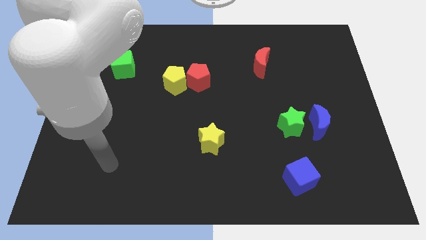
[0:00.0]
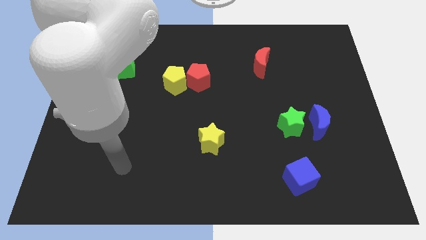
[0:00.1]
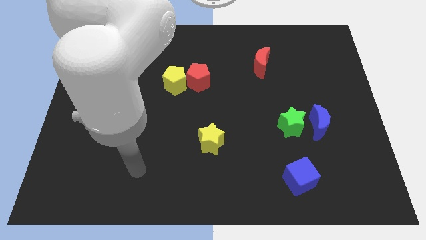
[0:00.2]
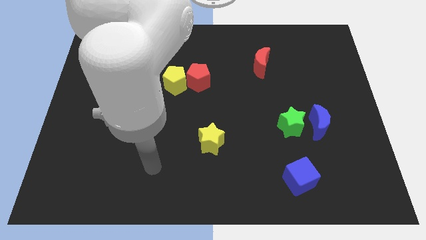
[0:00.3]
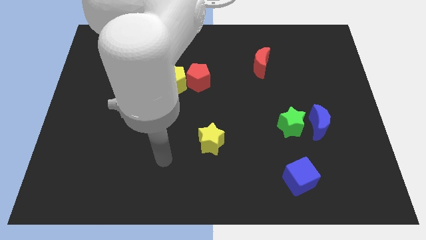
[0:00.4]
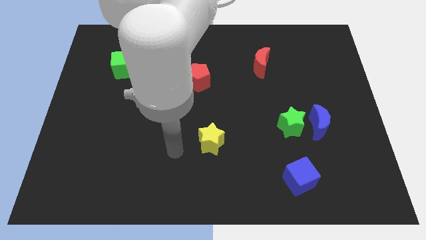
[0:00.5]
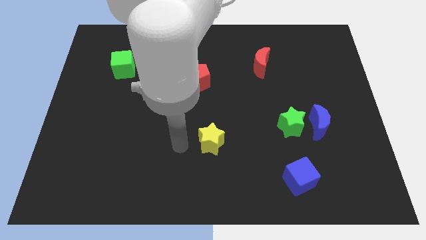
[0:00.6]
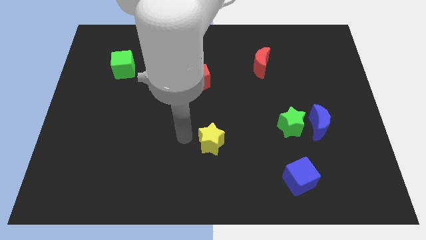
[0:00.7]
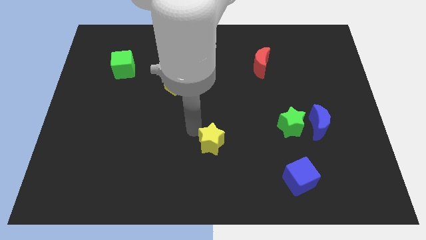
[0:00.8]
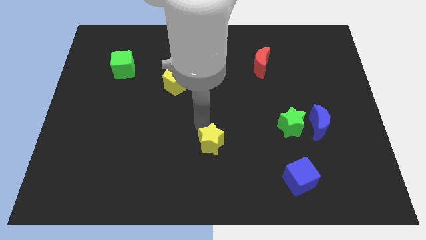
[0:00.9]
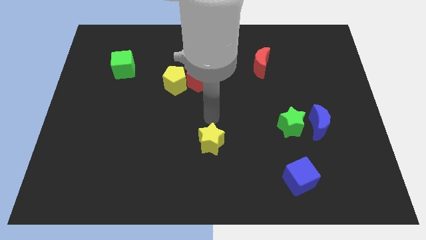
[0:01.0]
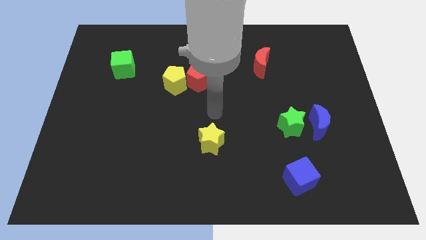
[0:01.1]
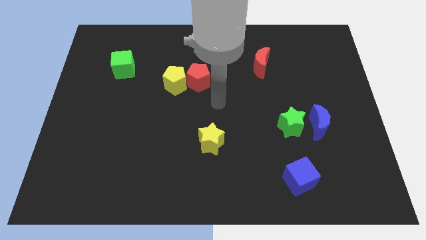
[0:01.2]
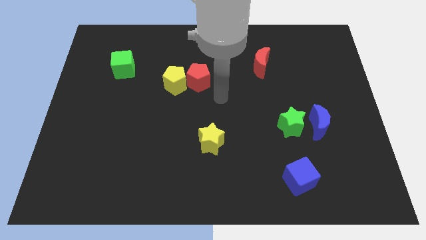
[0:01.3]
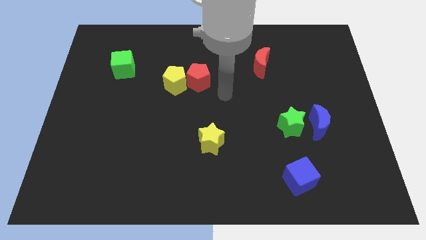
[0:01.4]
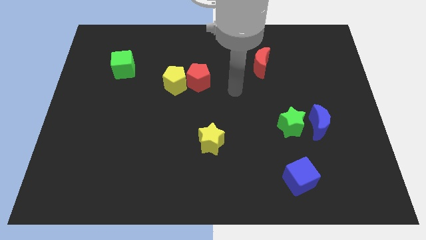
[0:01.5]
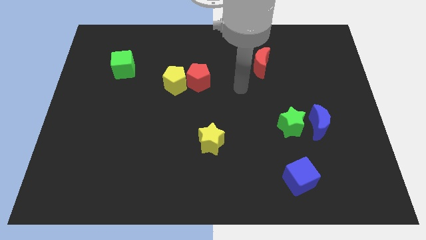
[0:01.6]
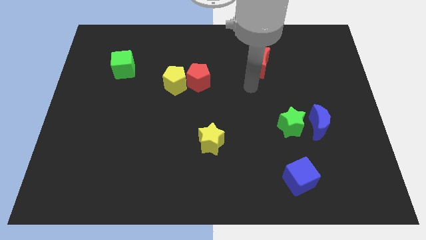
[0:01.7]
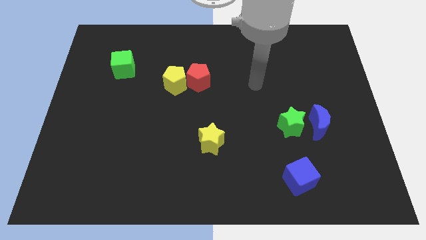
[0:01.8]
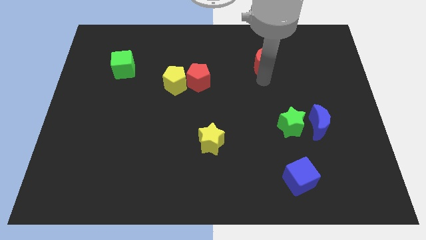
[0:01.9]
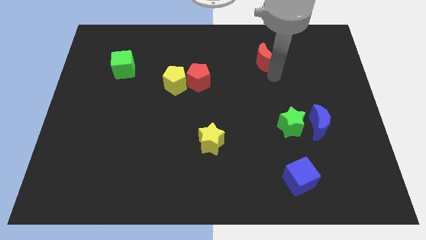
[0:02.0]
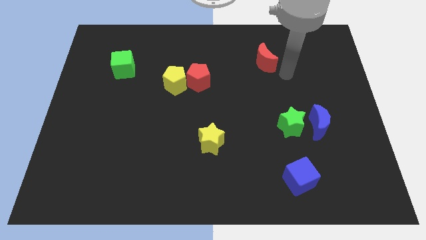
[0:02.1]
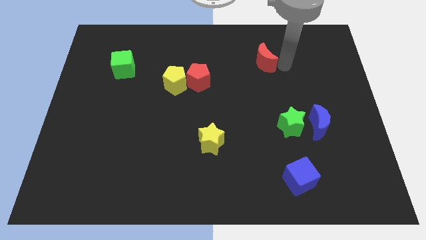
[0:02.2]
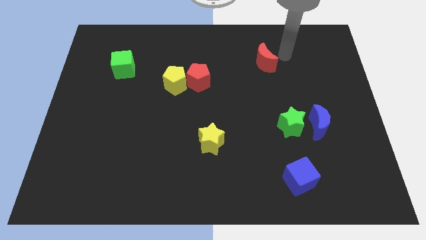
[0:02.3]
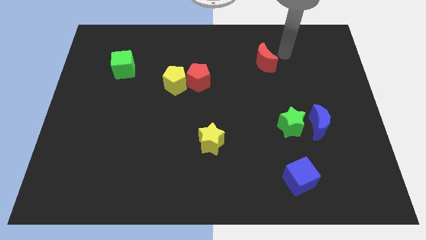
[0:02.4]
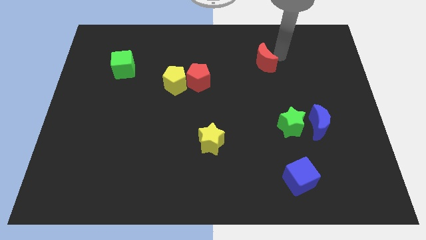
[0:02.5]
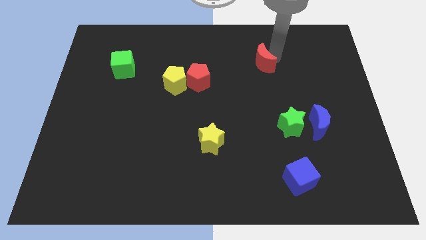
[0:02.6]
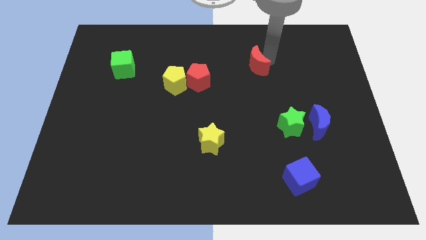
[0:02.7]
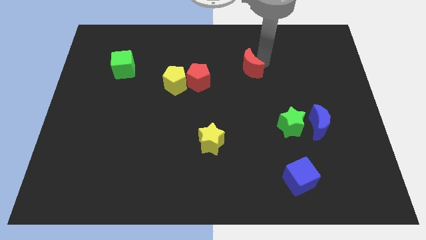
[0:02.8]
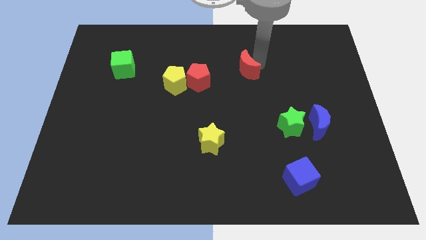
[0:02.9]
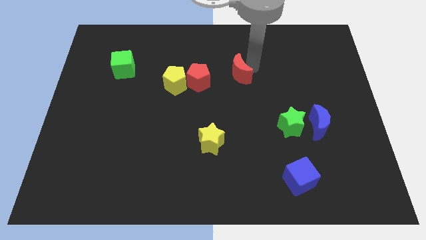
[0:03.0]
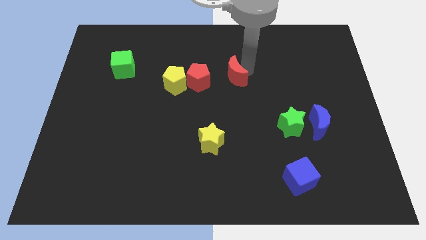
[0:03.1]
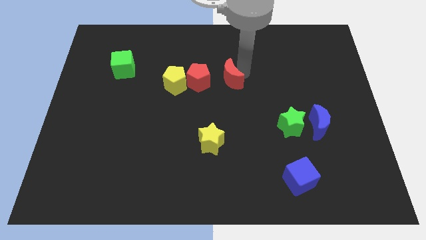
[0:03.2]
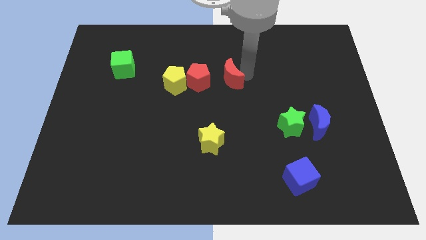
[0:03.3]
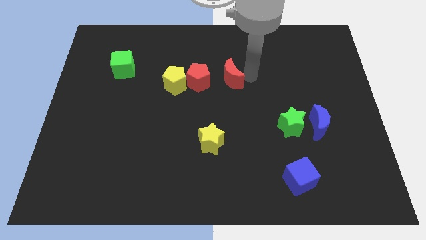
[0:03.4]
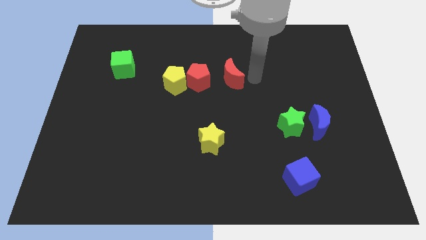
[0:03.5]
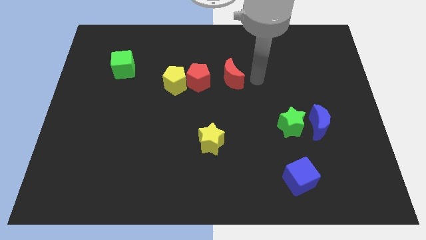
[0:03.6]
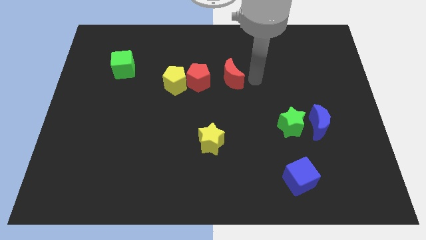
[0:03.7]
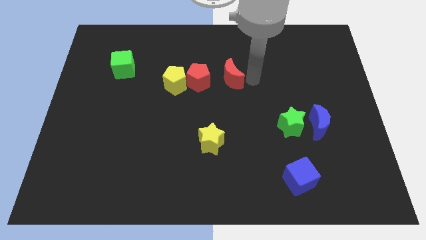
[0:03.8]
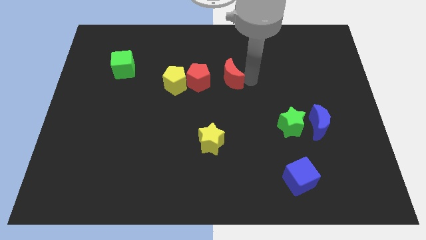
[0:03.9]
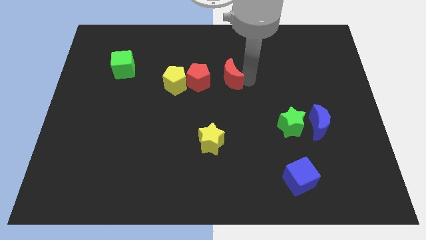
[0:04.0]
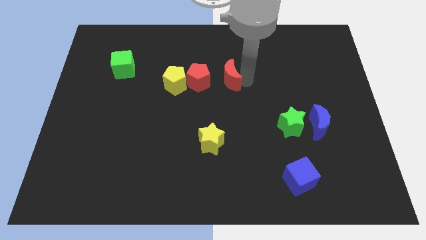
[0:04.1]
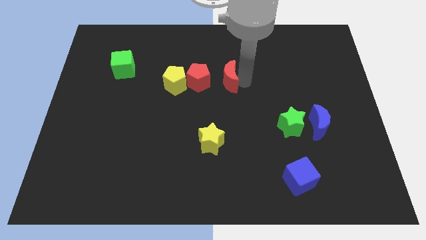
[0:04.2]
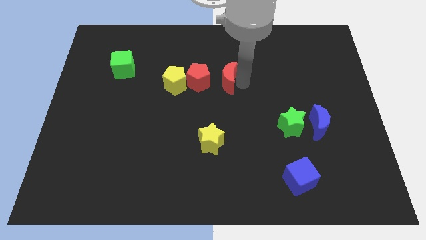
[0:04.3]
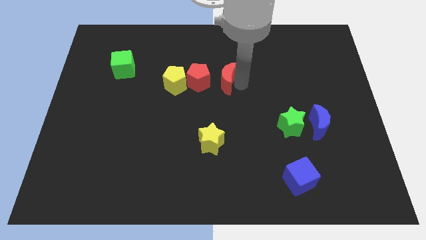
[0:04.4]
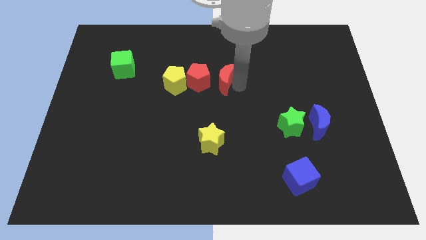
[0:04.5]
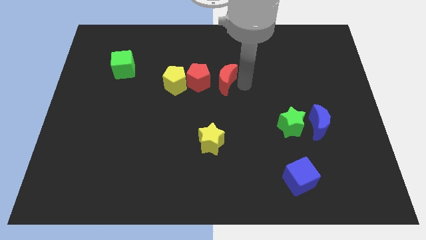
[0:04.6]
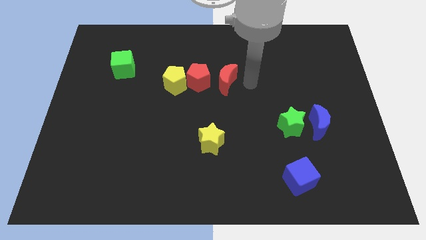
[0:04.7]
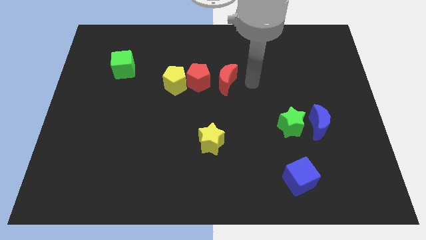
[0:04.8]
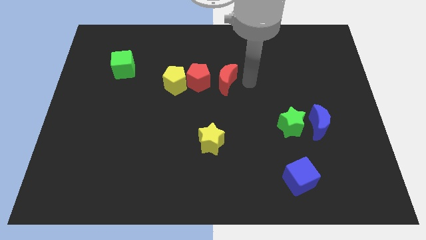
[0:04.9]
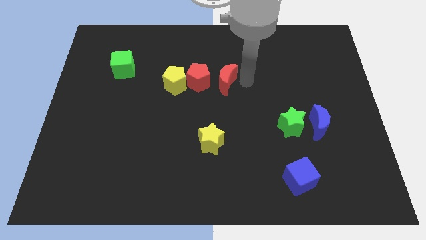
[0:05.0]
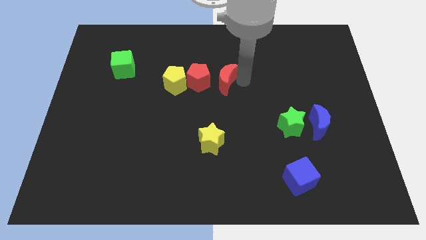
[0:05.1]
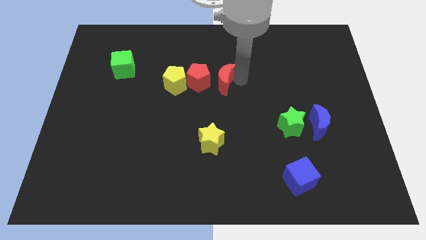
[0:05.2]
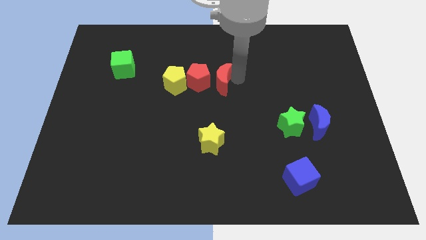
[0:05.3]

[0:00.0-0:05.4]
put the red moon towards the red pentagon

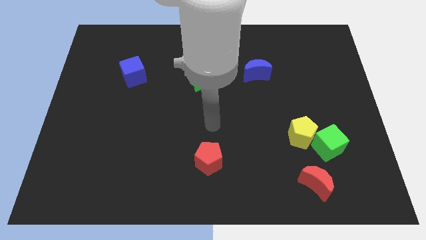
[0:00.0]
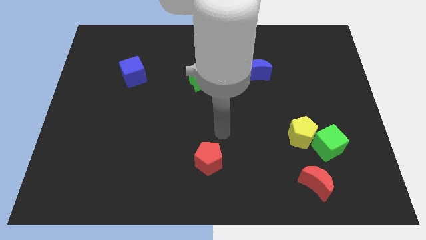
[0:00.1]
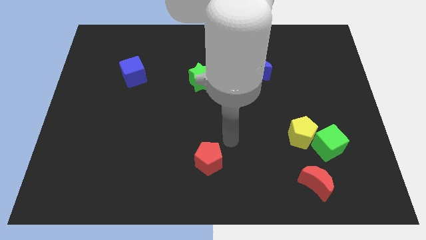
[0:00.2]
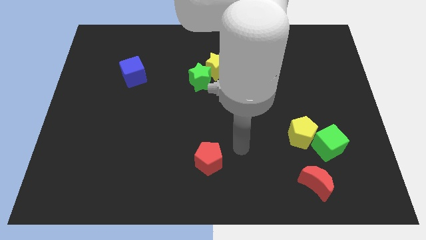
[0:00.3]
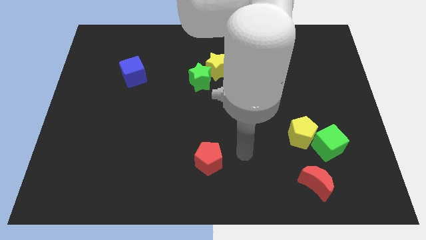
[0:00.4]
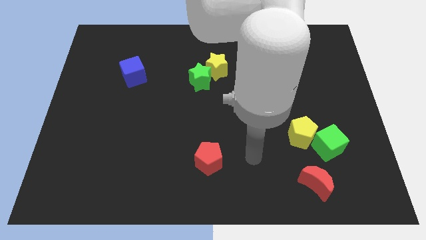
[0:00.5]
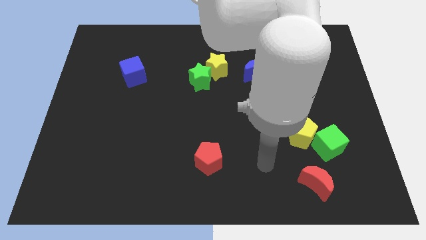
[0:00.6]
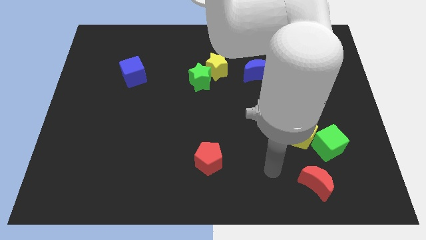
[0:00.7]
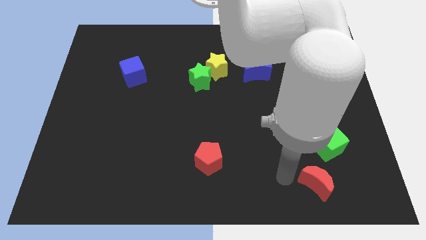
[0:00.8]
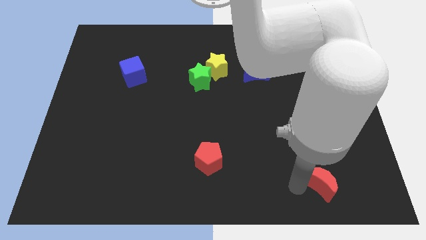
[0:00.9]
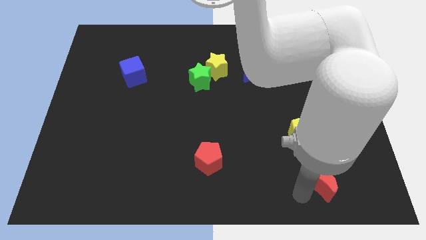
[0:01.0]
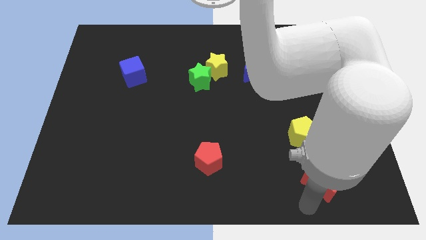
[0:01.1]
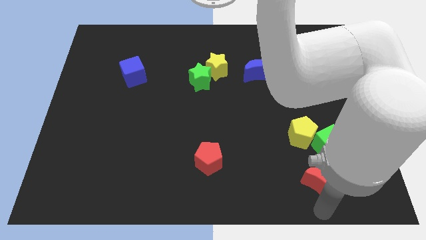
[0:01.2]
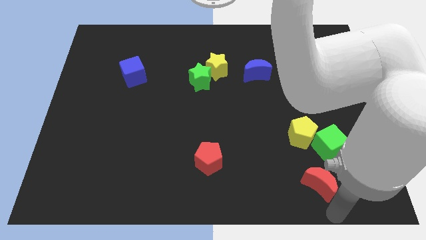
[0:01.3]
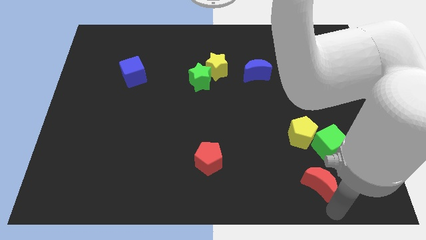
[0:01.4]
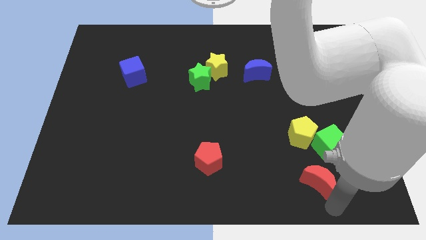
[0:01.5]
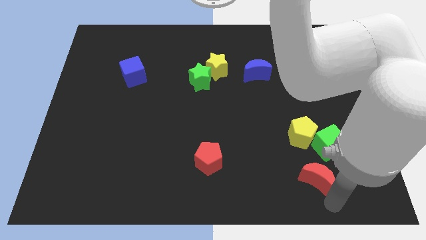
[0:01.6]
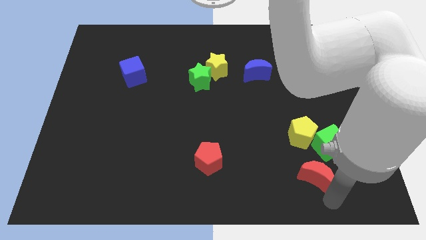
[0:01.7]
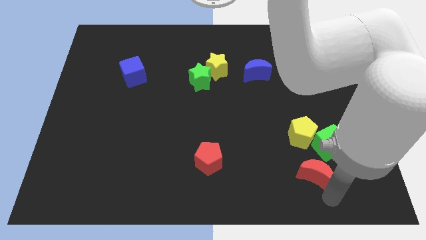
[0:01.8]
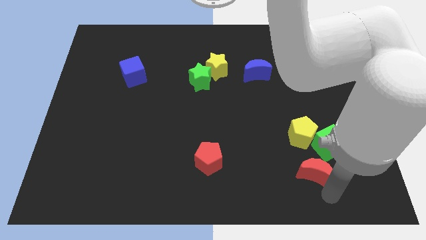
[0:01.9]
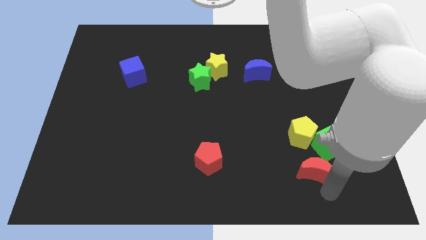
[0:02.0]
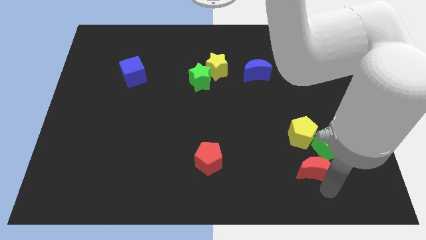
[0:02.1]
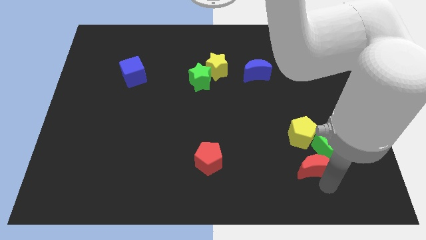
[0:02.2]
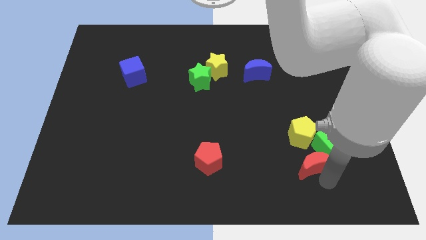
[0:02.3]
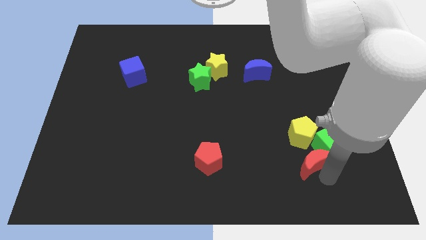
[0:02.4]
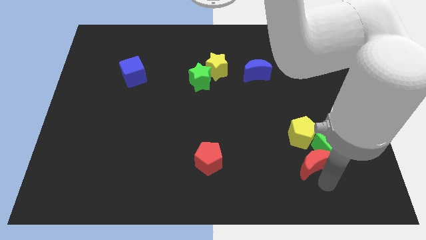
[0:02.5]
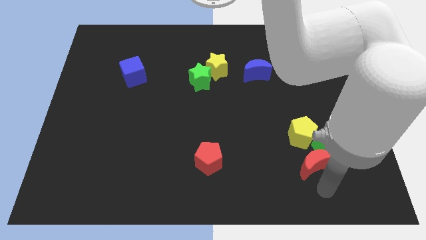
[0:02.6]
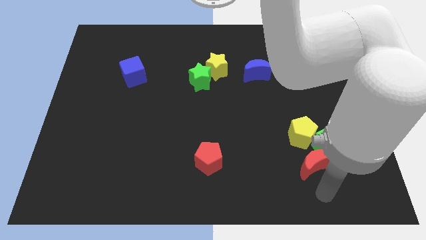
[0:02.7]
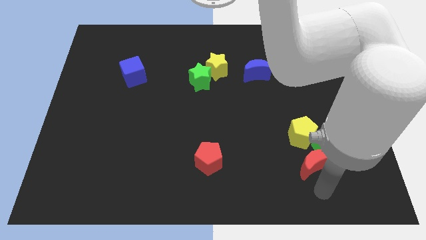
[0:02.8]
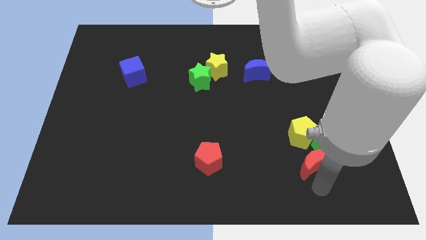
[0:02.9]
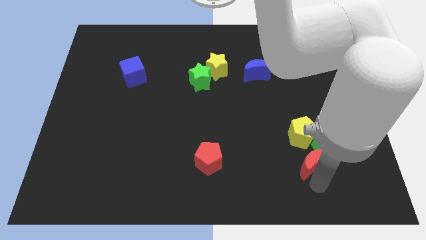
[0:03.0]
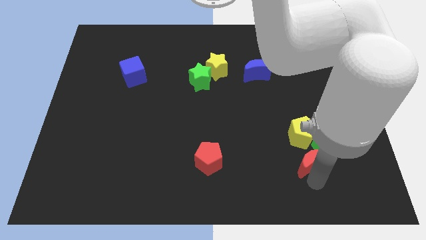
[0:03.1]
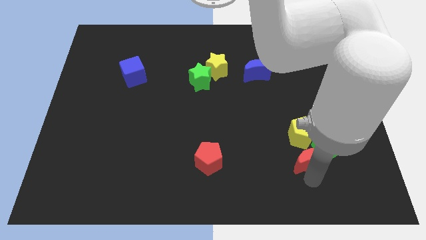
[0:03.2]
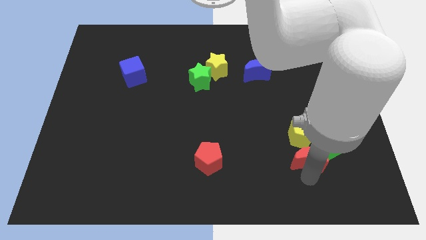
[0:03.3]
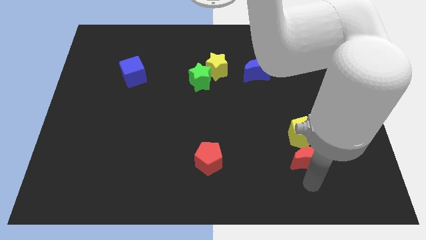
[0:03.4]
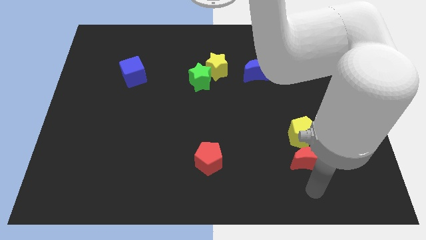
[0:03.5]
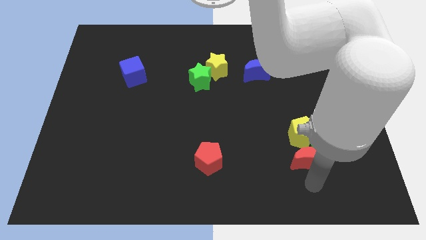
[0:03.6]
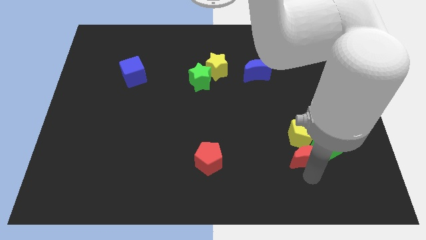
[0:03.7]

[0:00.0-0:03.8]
push the red moon close to the yellow pentagon
